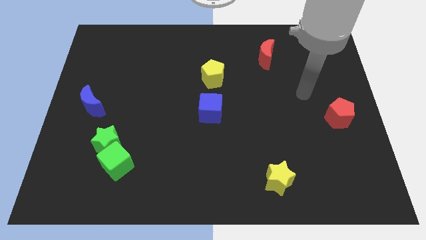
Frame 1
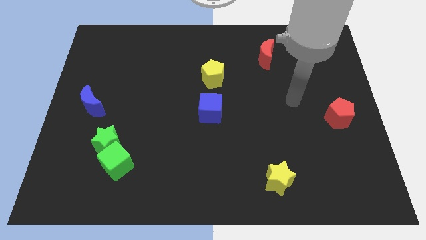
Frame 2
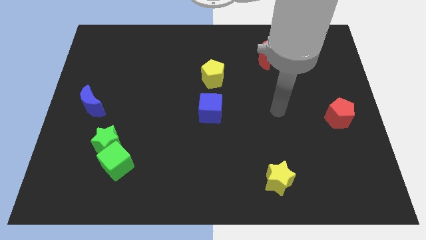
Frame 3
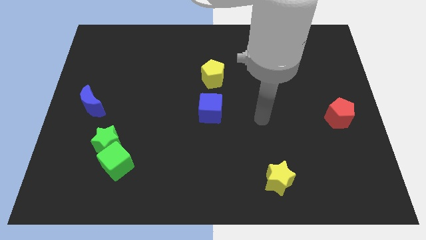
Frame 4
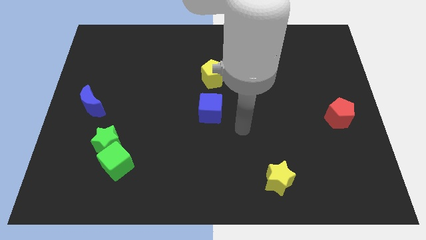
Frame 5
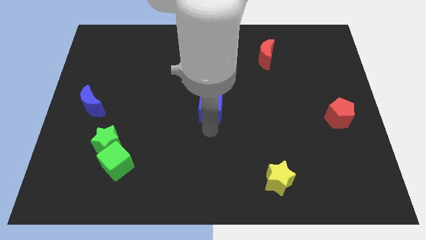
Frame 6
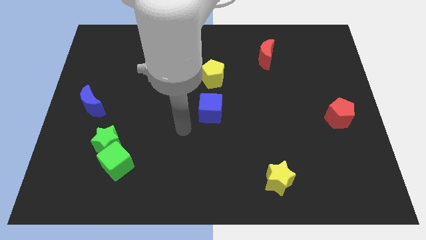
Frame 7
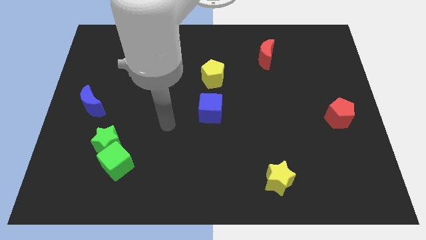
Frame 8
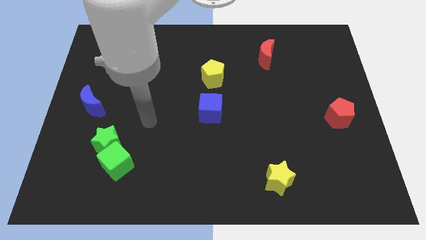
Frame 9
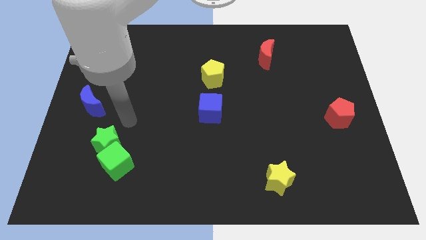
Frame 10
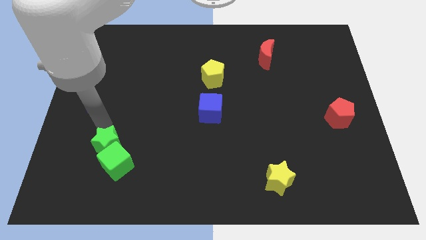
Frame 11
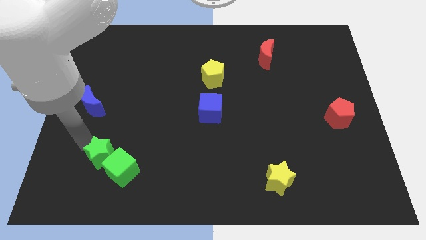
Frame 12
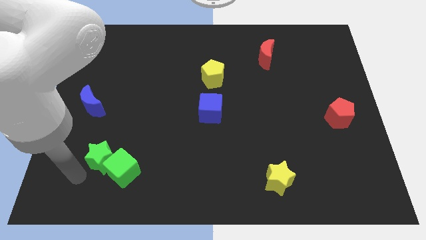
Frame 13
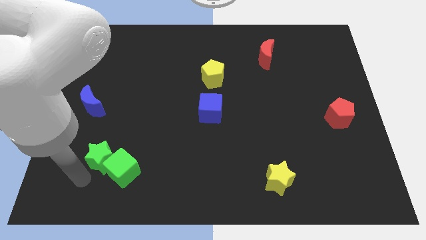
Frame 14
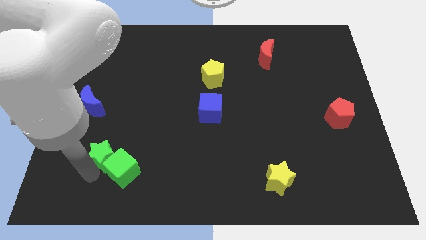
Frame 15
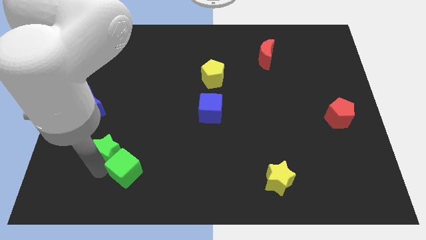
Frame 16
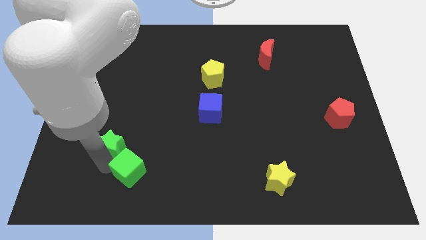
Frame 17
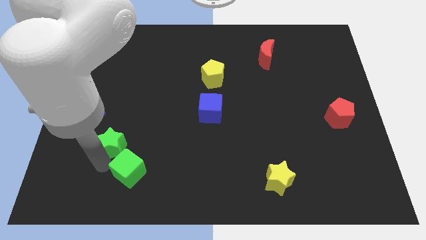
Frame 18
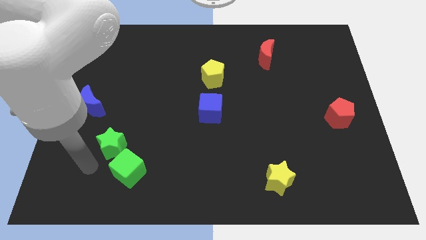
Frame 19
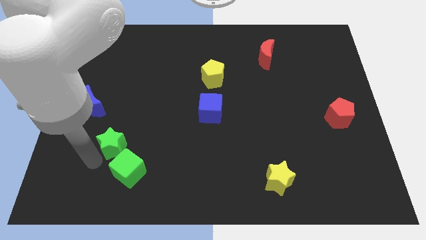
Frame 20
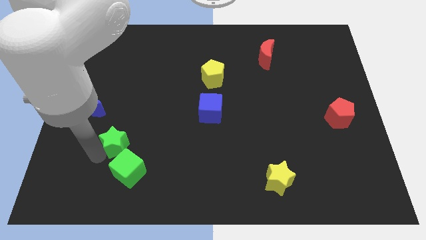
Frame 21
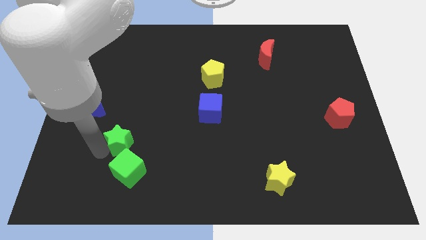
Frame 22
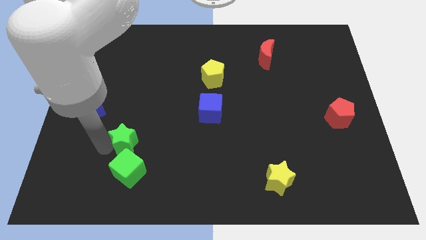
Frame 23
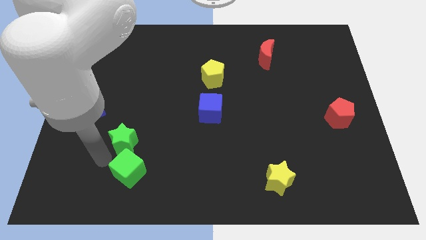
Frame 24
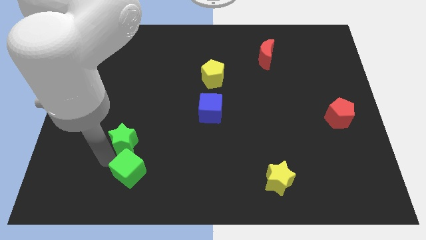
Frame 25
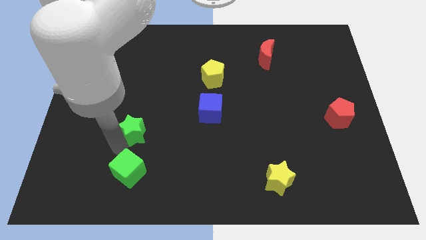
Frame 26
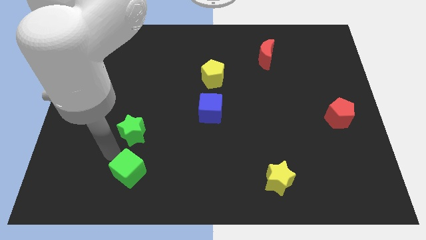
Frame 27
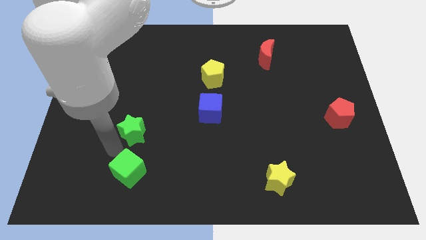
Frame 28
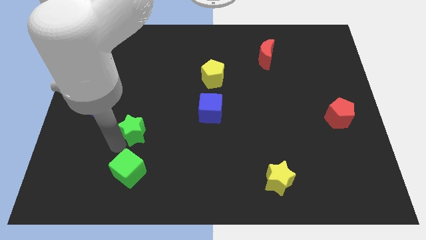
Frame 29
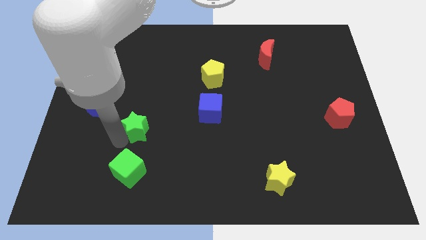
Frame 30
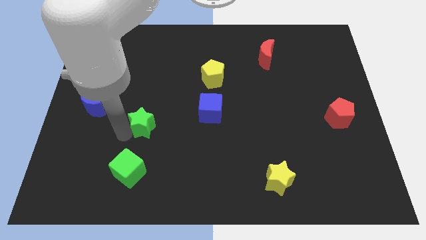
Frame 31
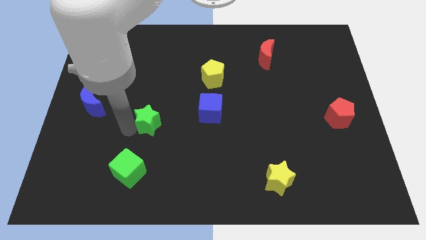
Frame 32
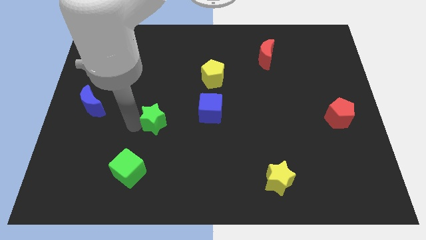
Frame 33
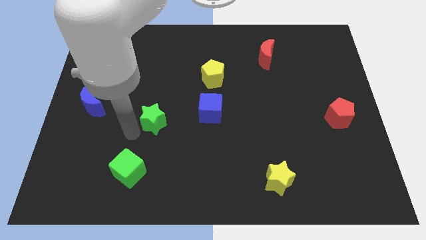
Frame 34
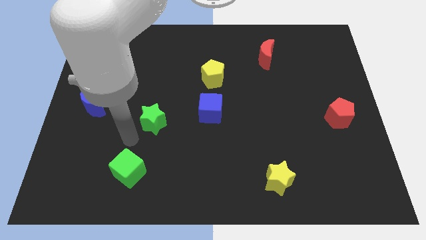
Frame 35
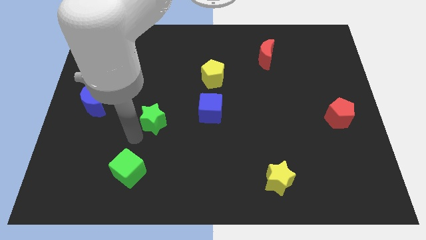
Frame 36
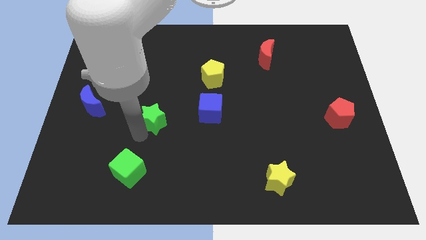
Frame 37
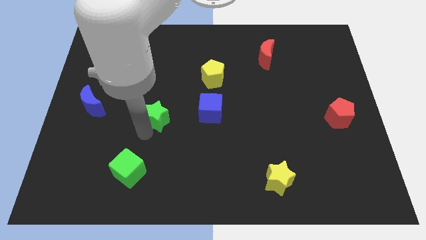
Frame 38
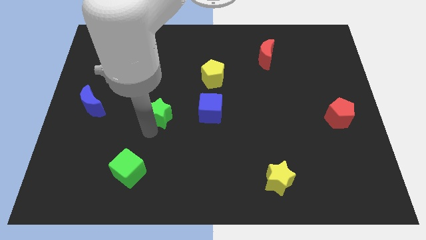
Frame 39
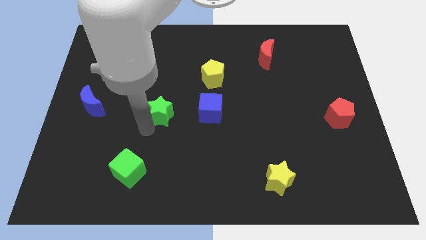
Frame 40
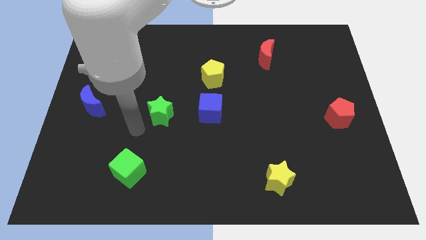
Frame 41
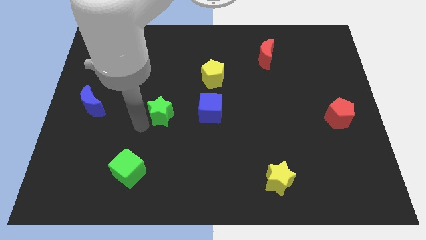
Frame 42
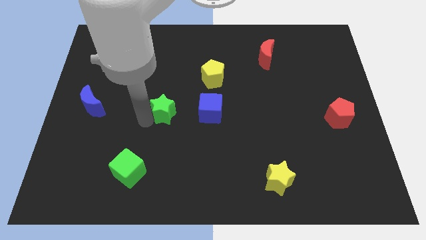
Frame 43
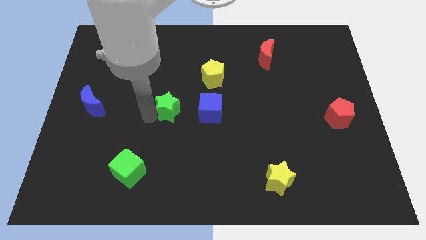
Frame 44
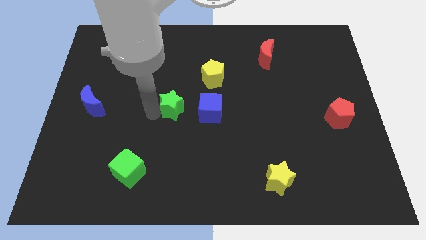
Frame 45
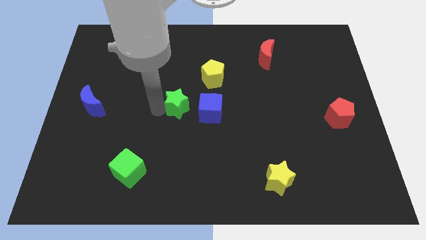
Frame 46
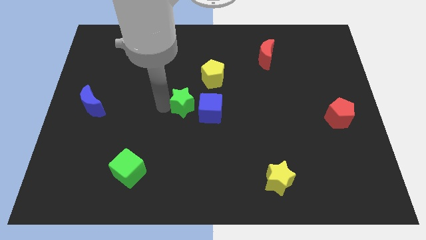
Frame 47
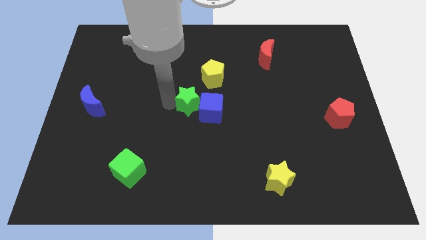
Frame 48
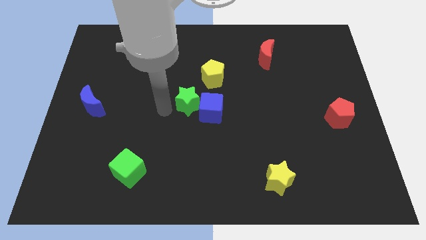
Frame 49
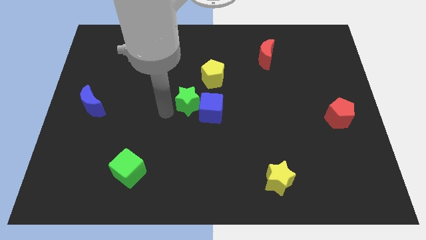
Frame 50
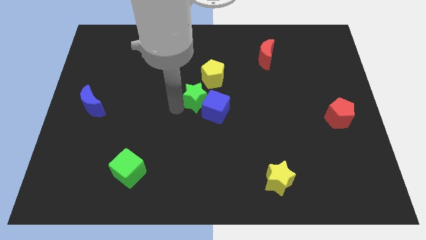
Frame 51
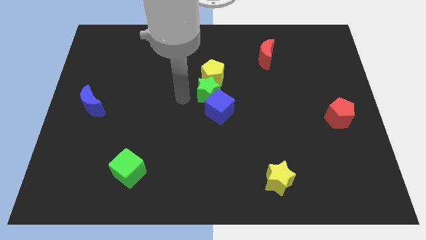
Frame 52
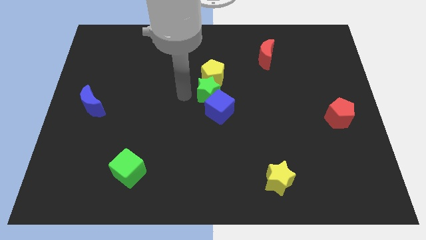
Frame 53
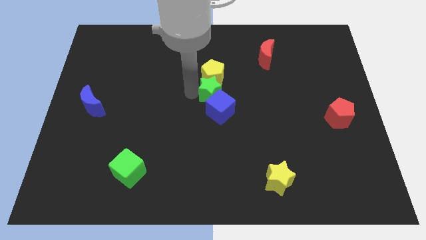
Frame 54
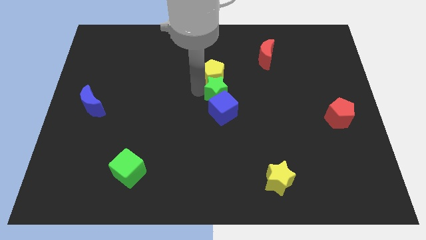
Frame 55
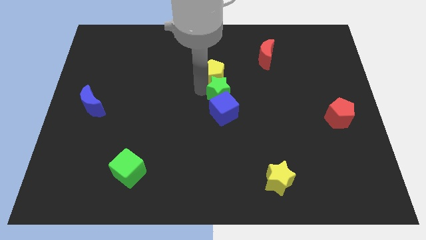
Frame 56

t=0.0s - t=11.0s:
push the green star diagonally up and to the right of the blue cube

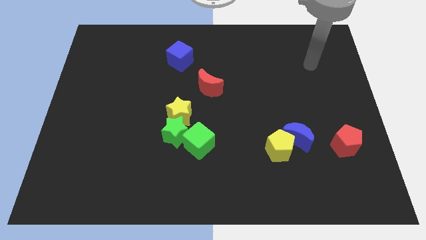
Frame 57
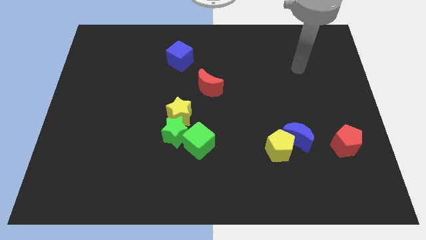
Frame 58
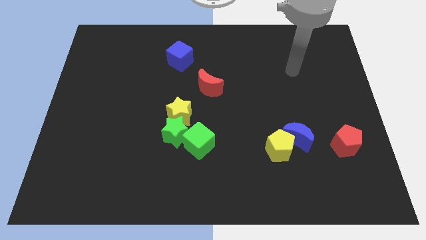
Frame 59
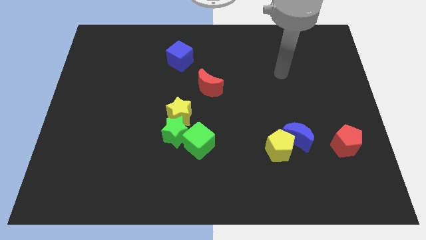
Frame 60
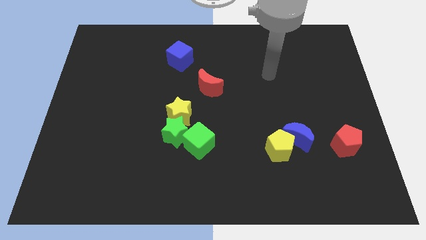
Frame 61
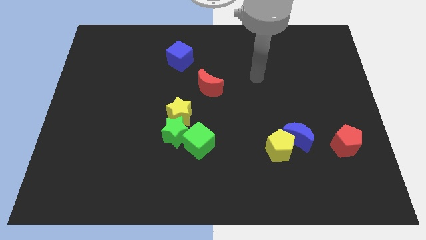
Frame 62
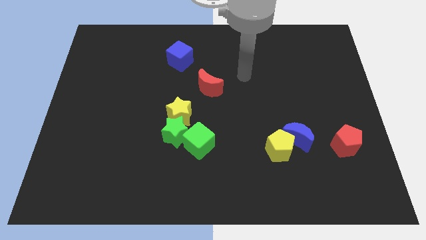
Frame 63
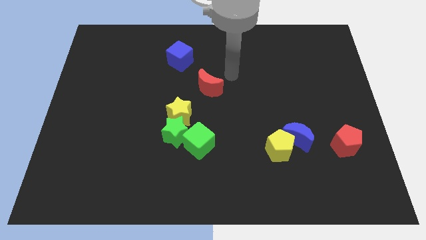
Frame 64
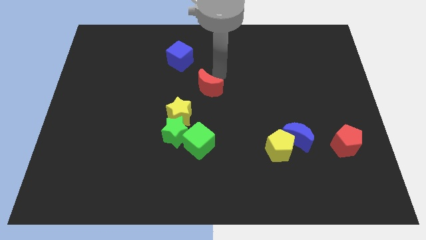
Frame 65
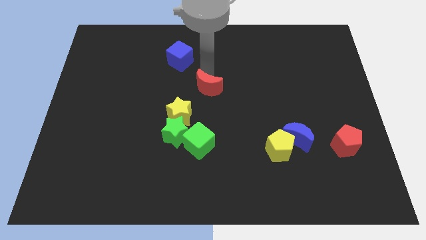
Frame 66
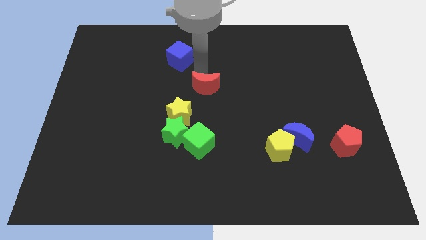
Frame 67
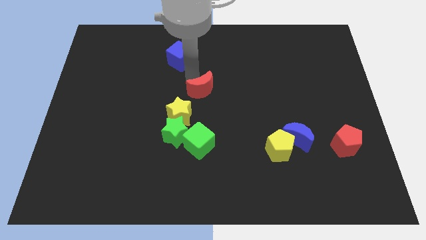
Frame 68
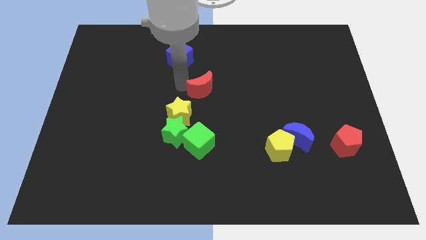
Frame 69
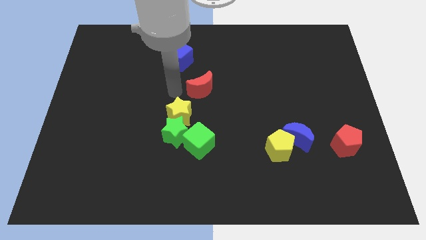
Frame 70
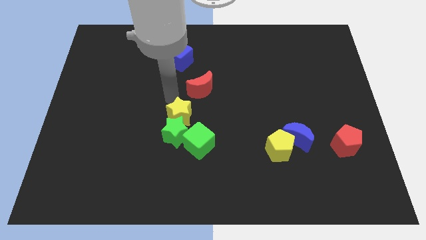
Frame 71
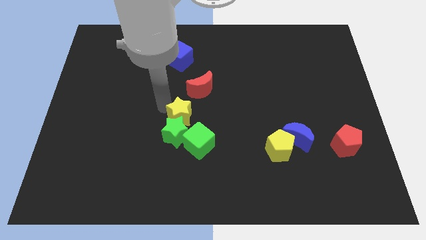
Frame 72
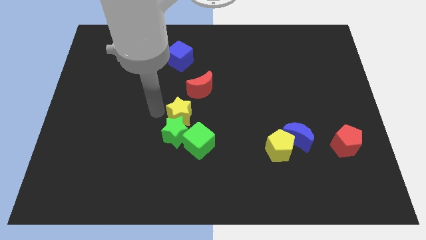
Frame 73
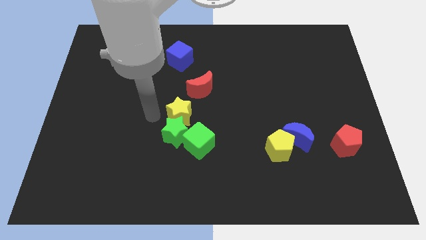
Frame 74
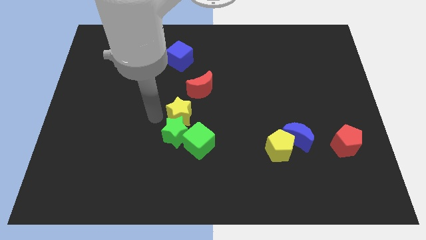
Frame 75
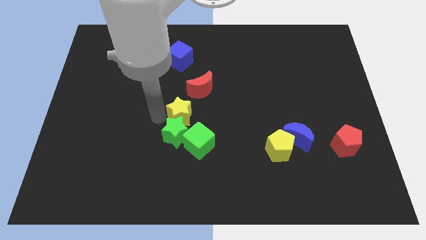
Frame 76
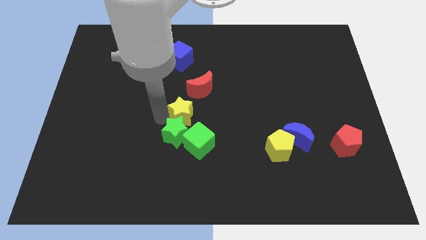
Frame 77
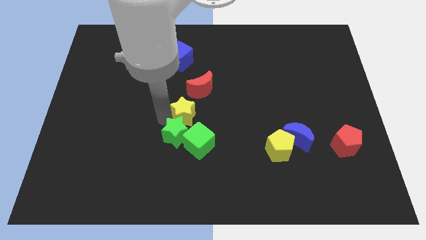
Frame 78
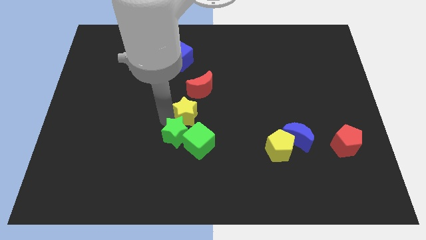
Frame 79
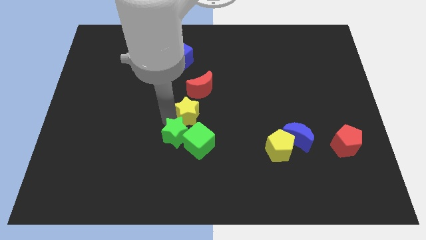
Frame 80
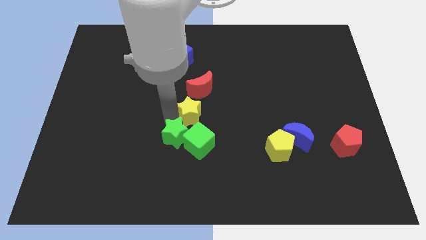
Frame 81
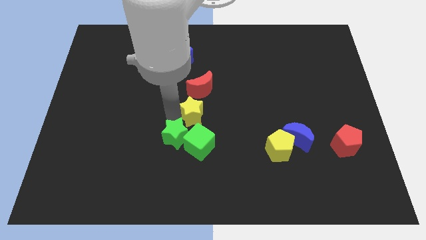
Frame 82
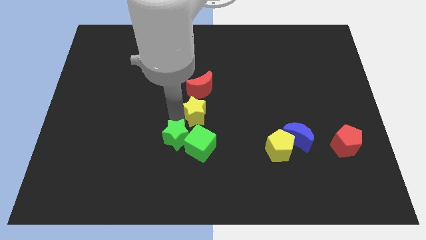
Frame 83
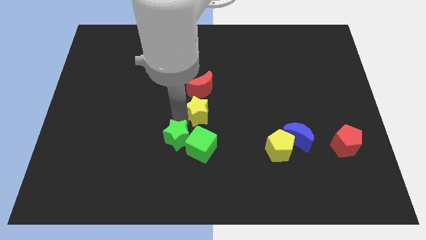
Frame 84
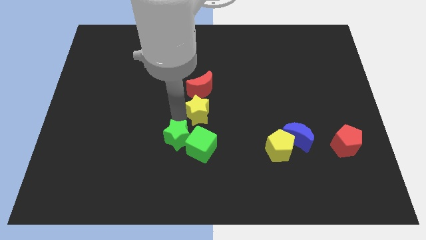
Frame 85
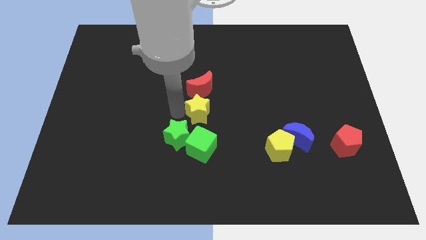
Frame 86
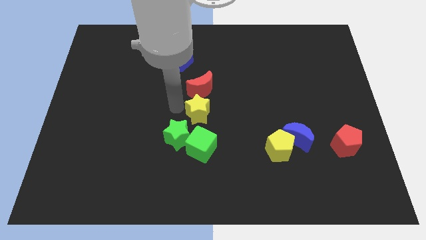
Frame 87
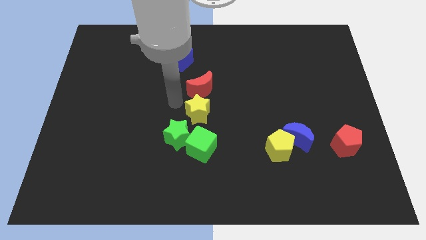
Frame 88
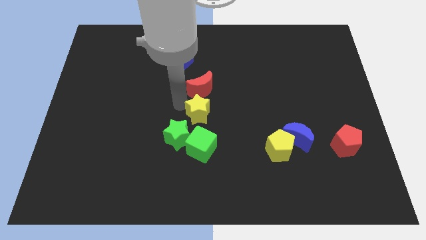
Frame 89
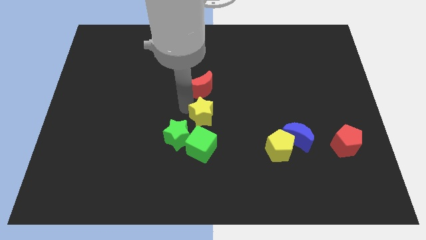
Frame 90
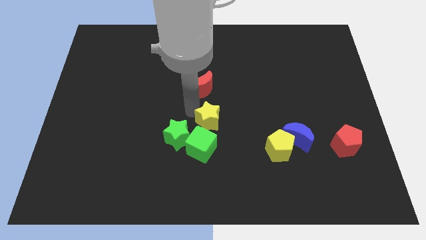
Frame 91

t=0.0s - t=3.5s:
push the yellow star to the top right side of the green cube
